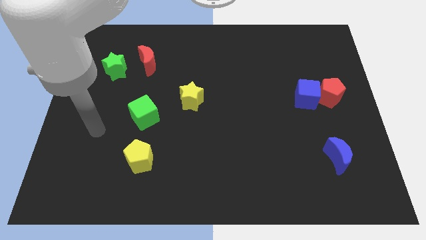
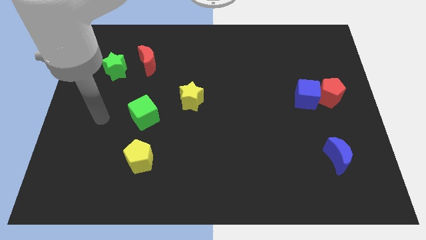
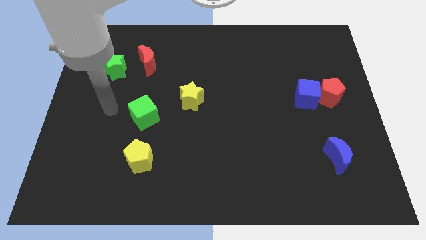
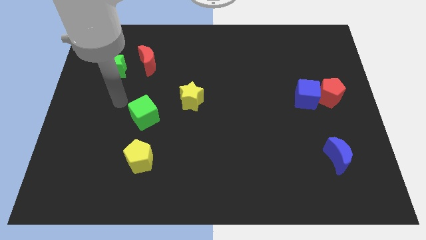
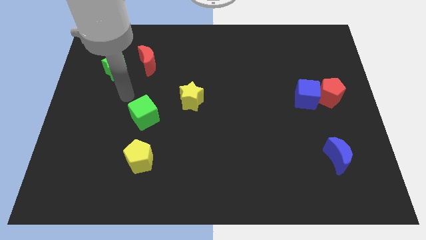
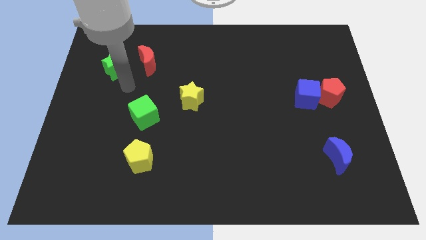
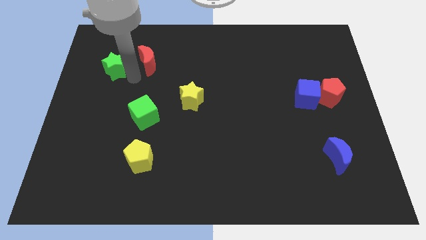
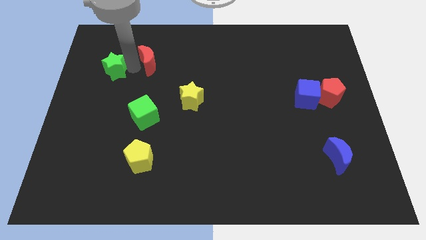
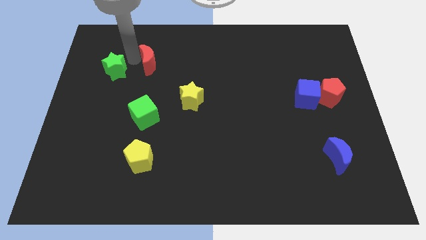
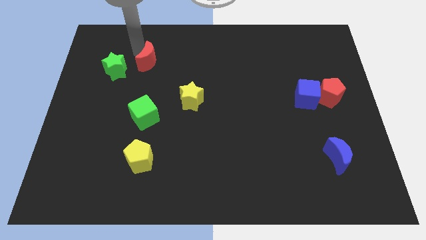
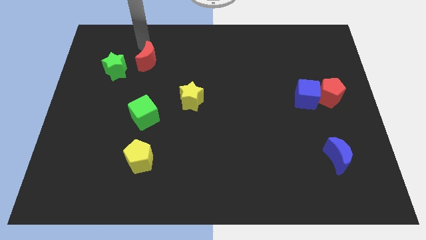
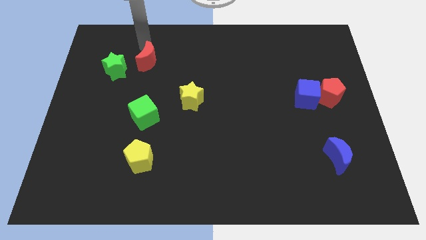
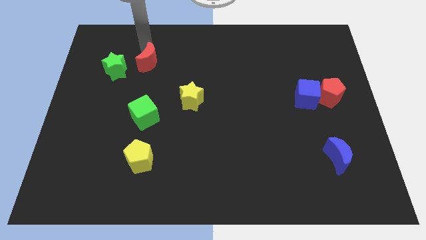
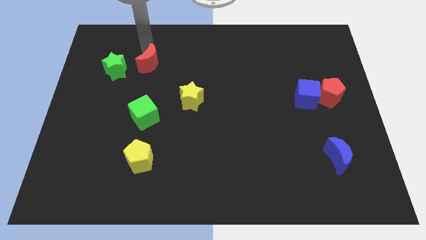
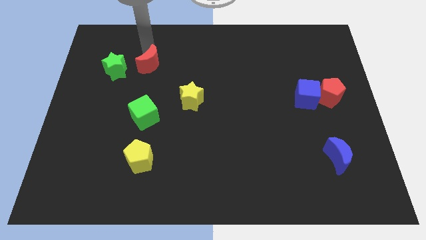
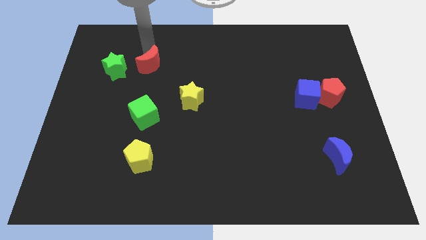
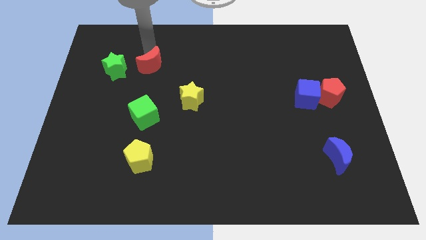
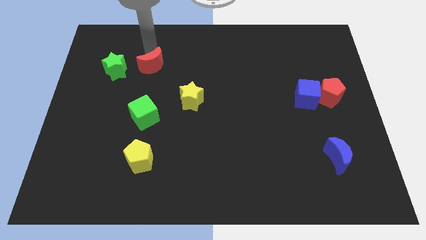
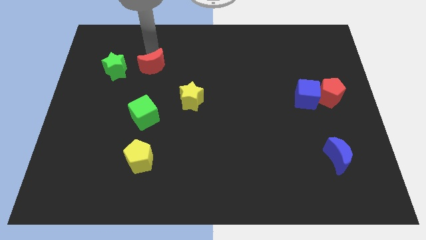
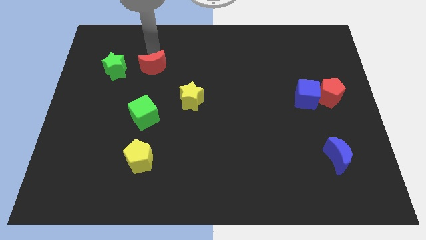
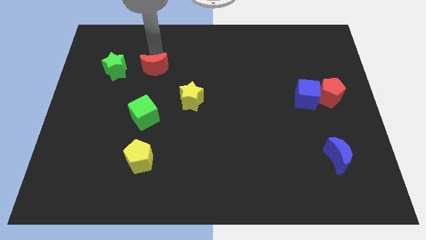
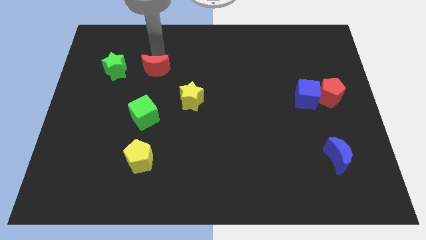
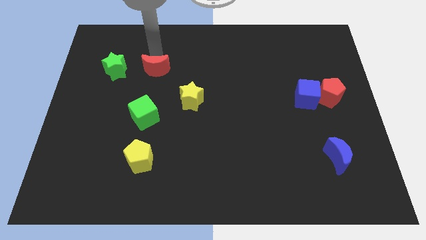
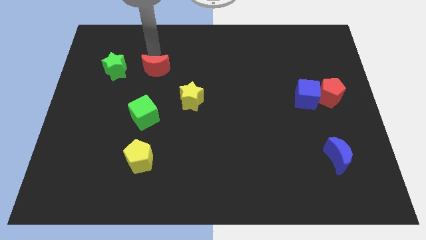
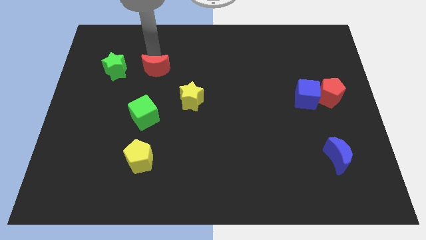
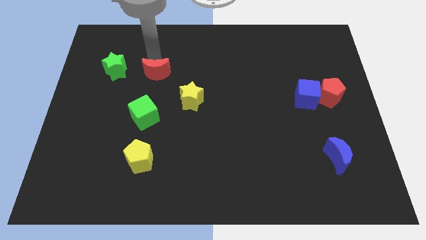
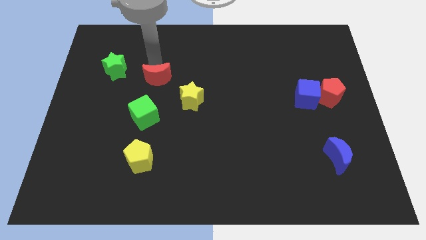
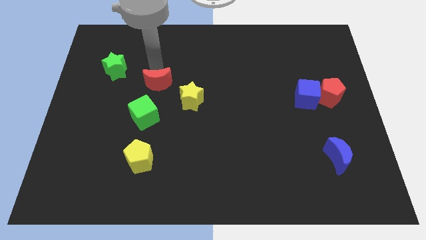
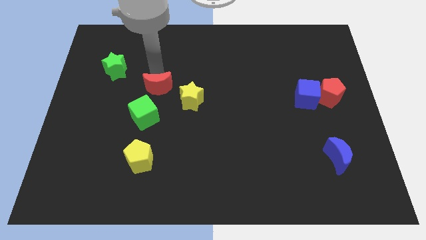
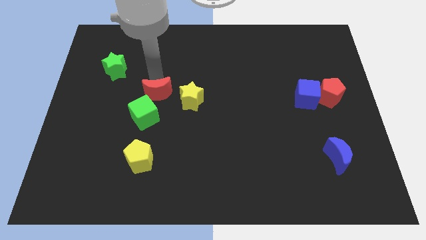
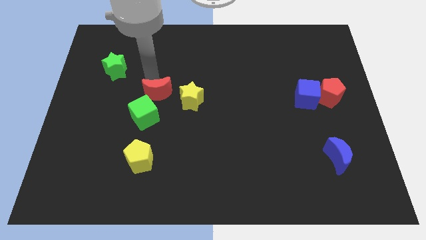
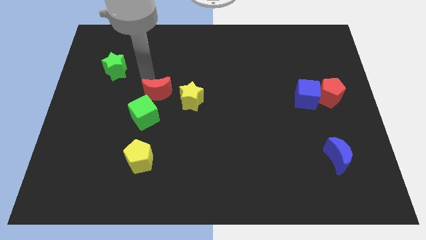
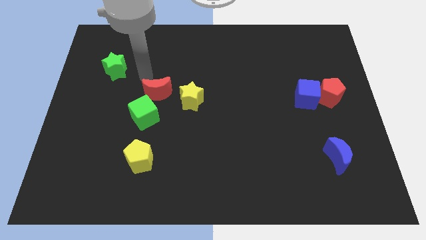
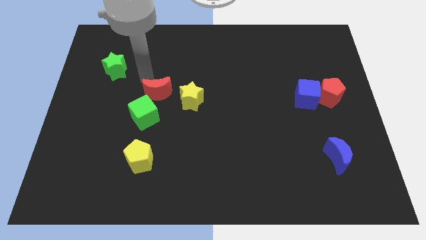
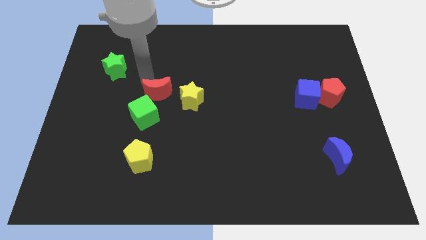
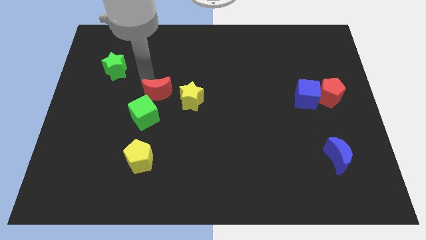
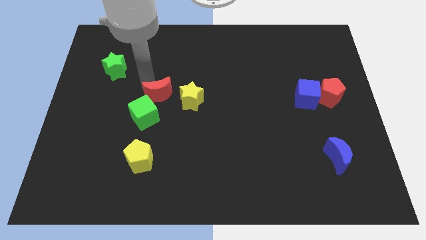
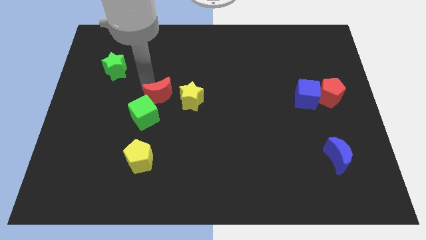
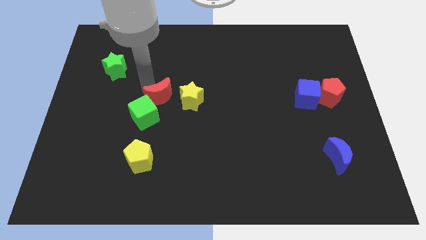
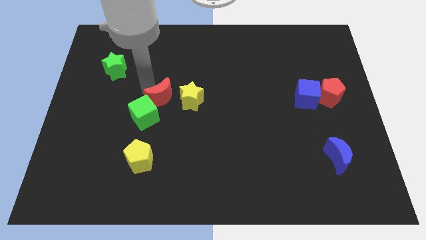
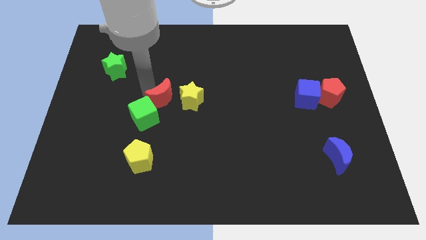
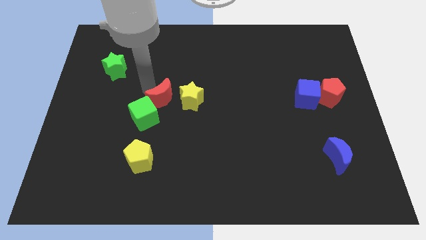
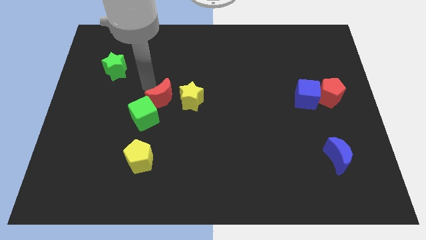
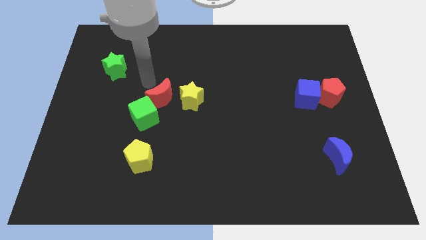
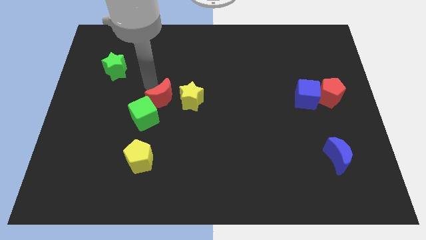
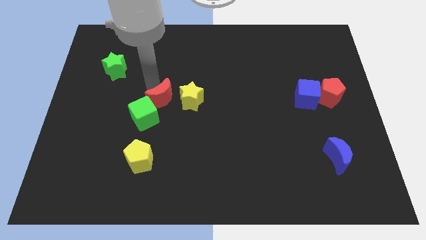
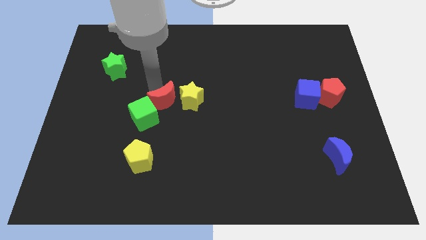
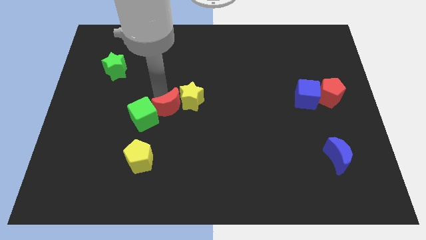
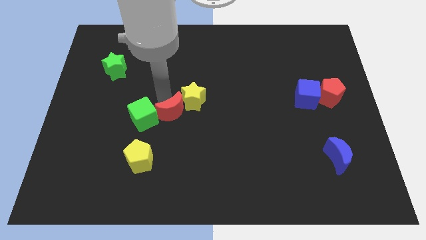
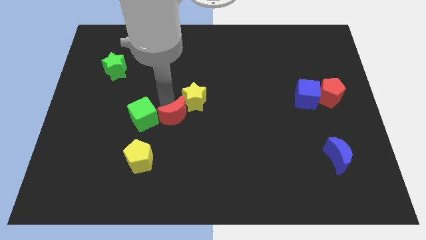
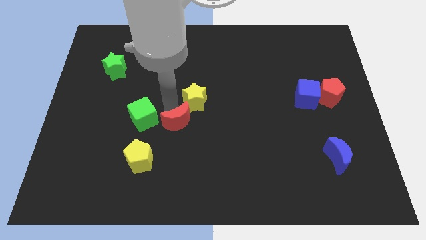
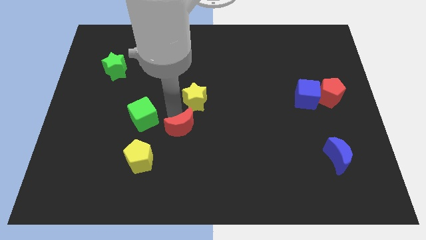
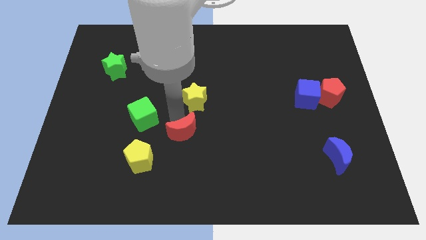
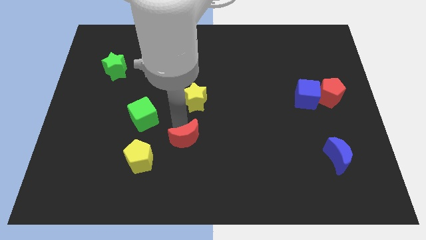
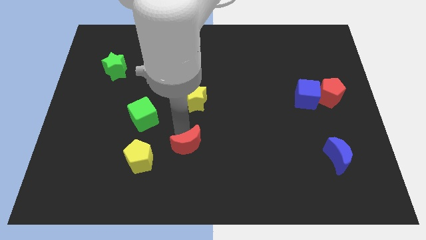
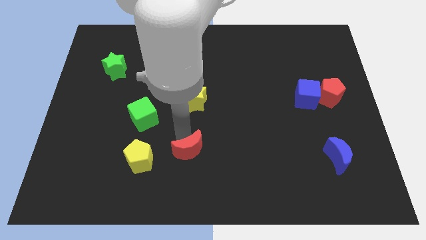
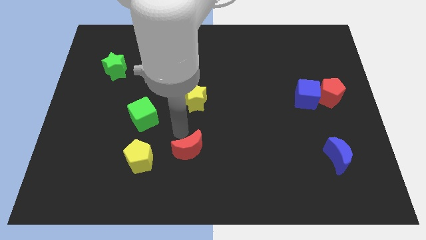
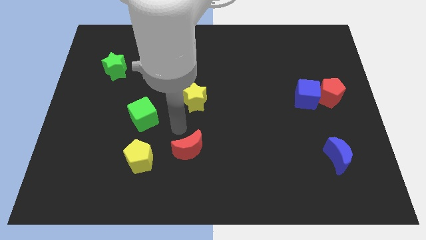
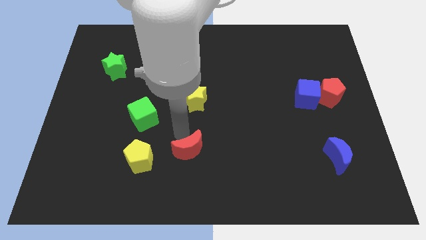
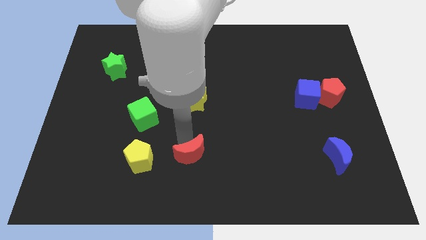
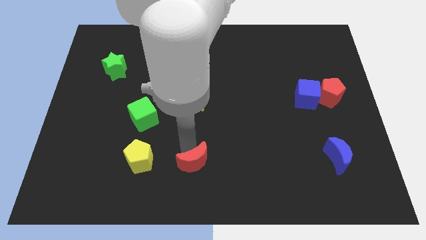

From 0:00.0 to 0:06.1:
push the red moon to the bottom side
